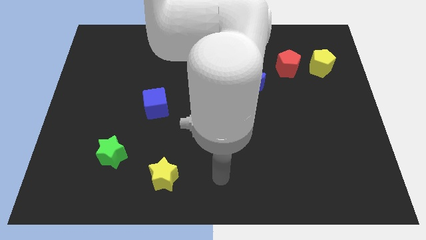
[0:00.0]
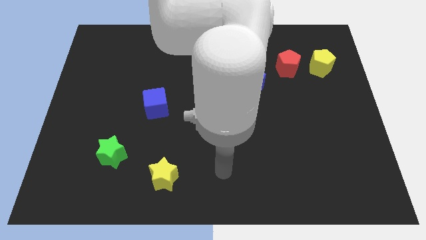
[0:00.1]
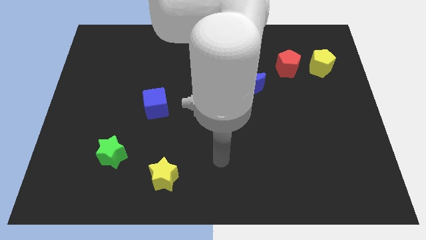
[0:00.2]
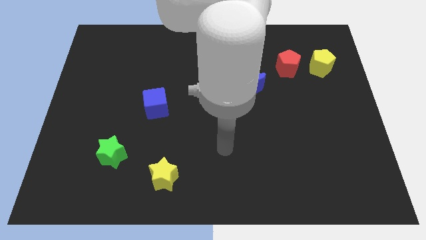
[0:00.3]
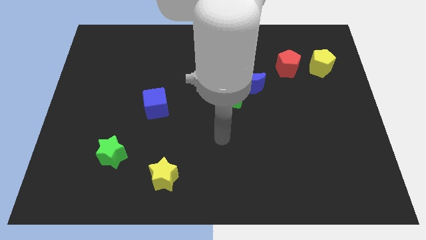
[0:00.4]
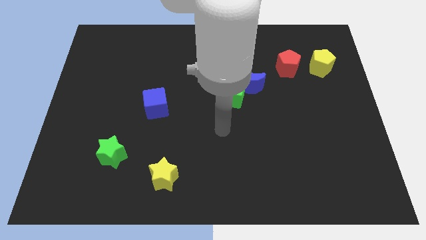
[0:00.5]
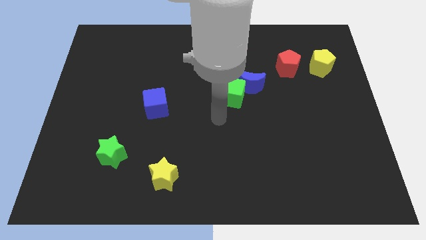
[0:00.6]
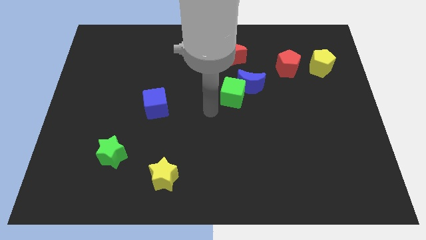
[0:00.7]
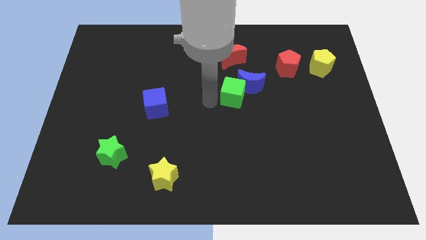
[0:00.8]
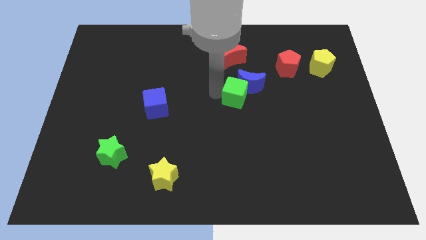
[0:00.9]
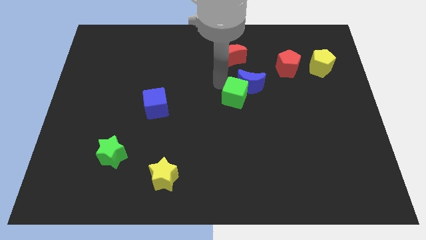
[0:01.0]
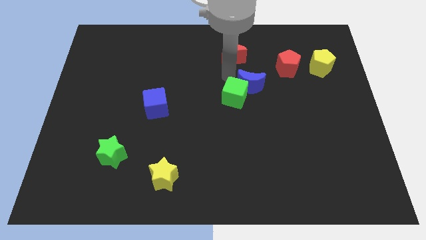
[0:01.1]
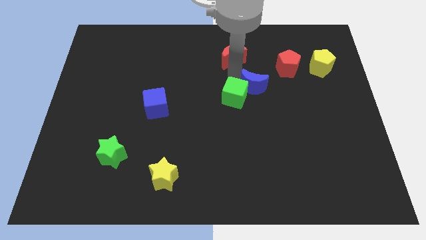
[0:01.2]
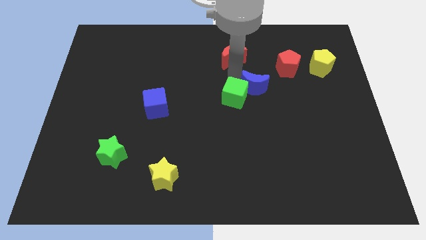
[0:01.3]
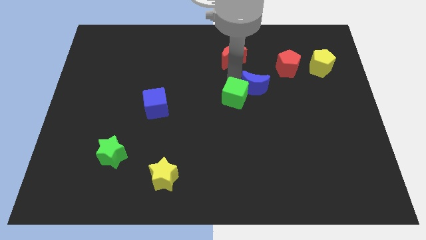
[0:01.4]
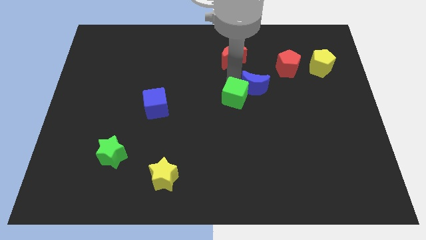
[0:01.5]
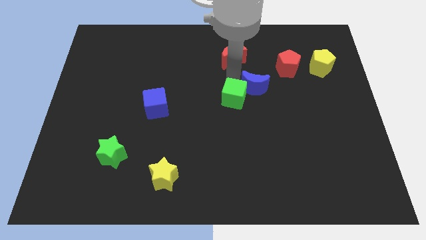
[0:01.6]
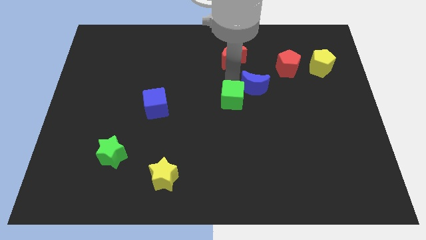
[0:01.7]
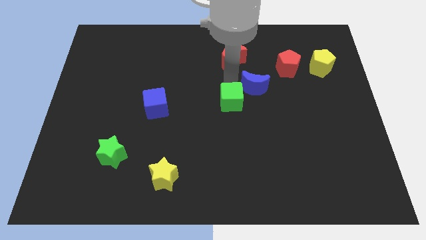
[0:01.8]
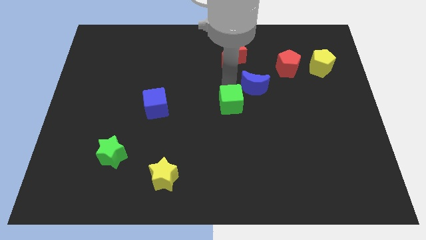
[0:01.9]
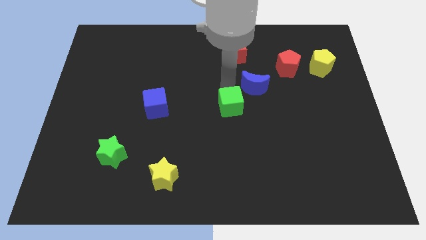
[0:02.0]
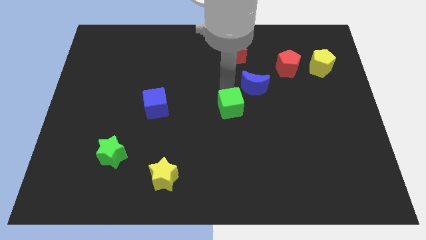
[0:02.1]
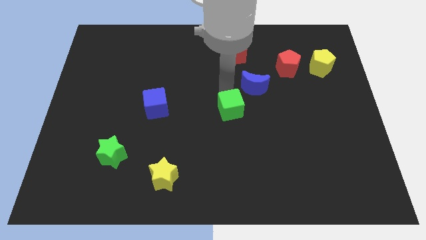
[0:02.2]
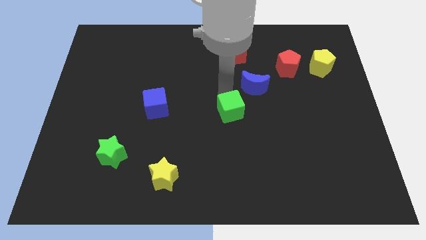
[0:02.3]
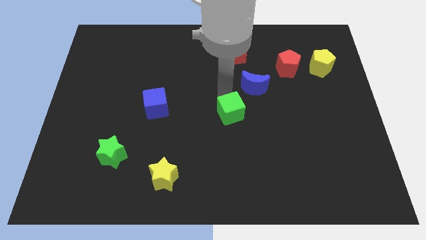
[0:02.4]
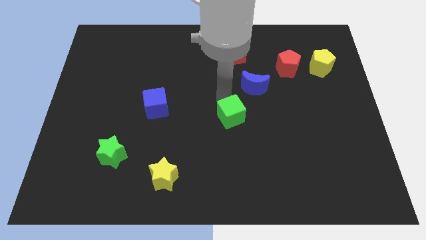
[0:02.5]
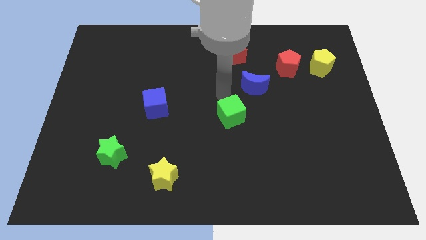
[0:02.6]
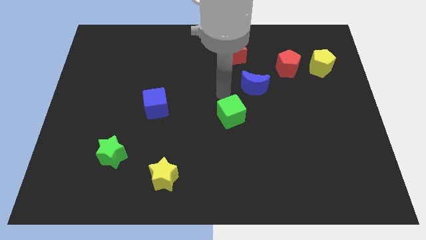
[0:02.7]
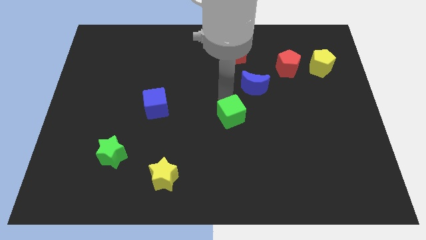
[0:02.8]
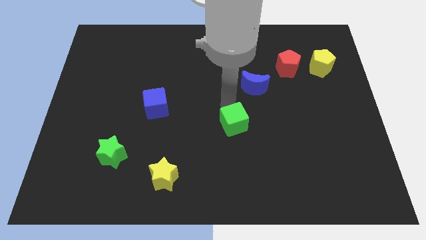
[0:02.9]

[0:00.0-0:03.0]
slide the green cube downwards a bit

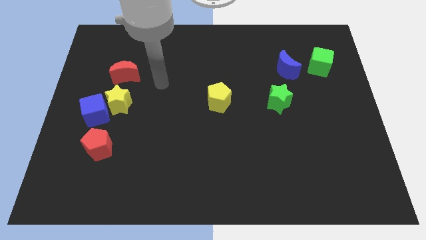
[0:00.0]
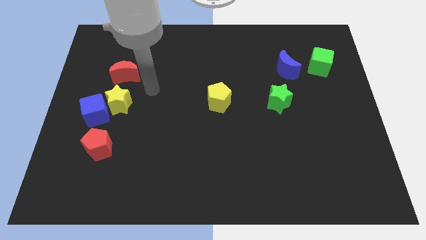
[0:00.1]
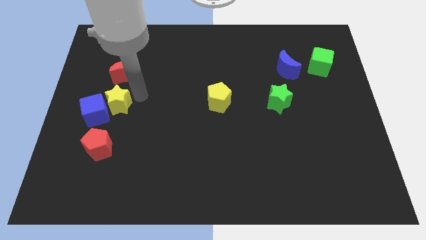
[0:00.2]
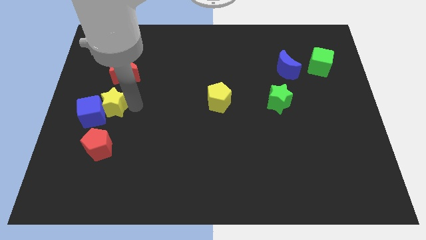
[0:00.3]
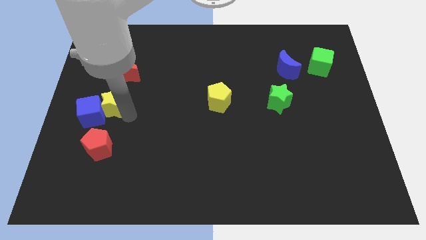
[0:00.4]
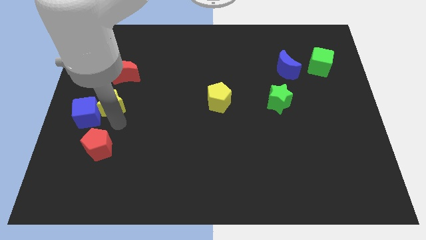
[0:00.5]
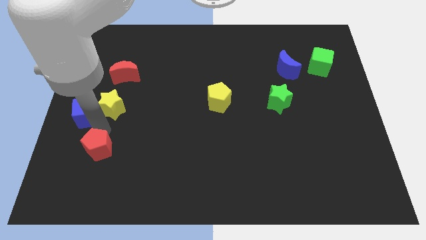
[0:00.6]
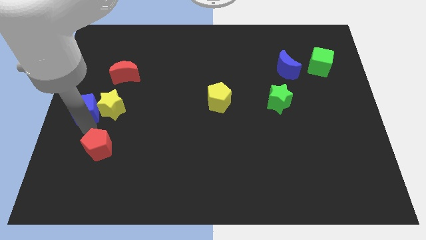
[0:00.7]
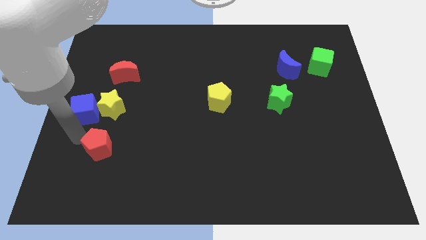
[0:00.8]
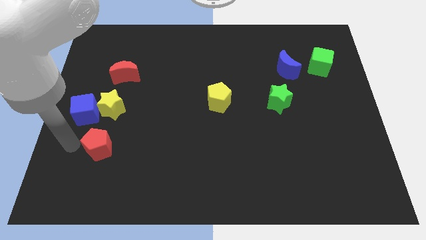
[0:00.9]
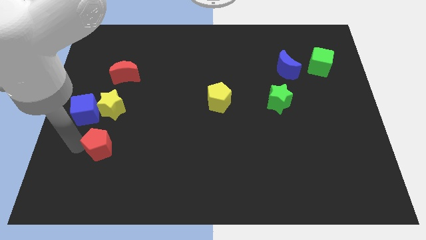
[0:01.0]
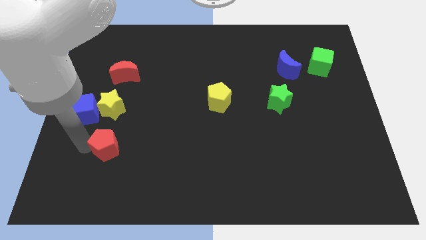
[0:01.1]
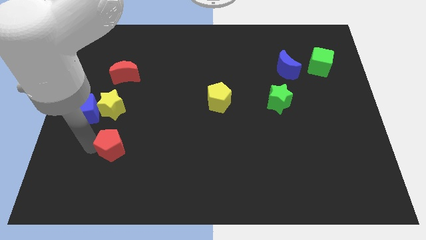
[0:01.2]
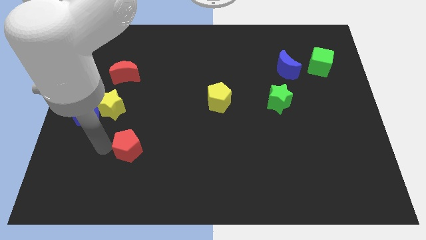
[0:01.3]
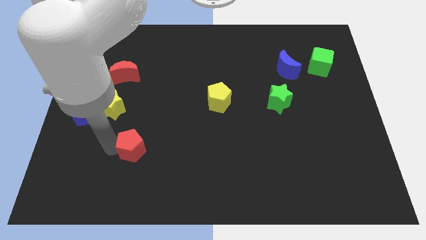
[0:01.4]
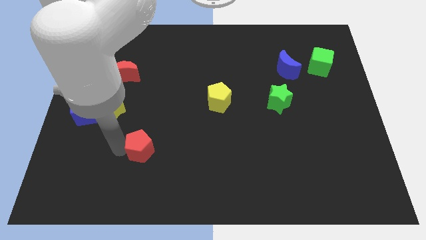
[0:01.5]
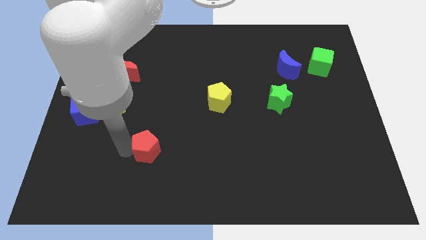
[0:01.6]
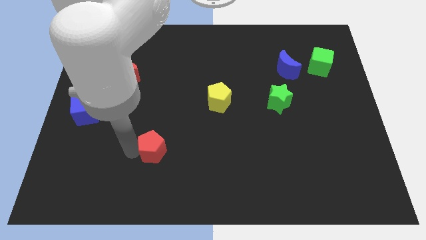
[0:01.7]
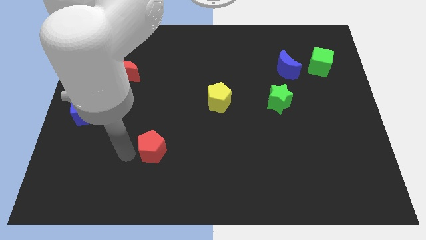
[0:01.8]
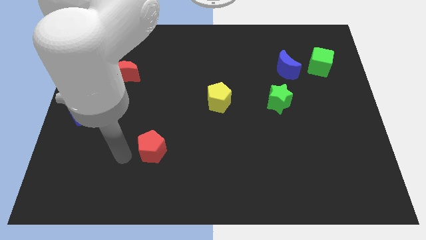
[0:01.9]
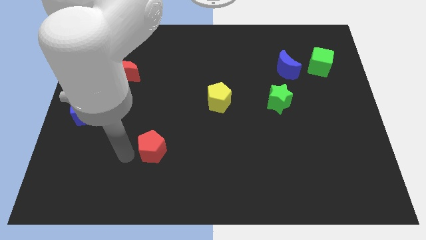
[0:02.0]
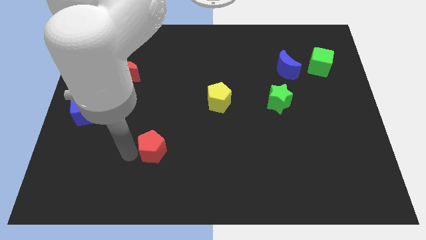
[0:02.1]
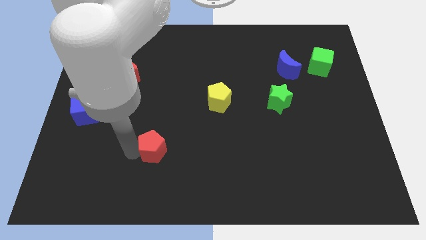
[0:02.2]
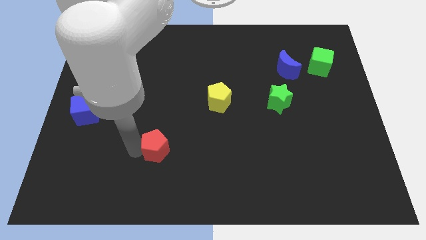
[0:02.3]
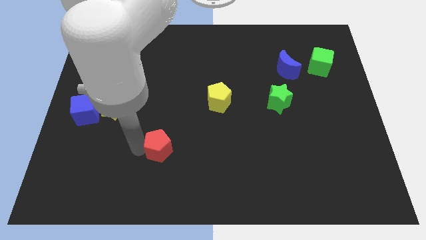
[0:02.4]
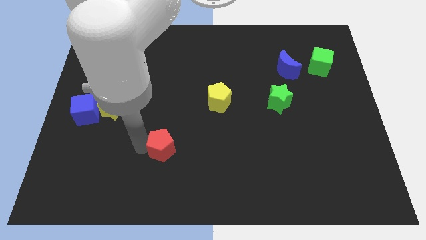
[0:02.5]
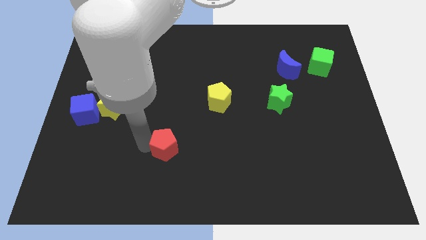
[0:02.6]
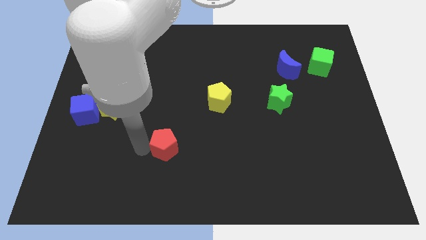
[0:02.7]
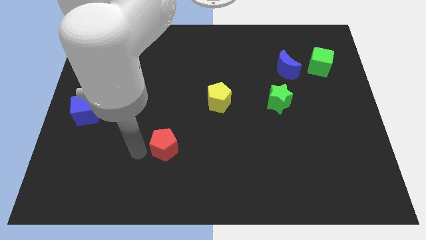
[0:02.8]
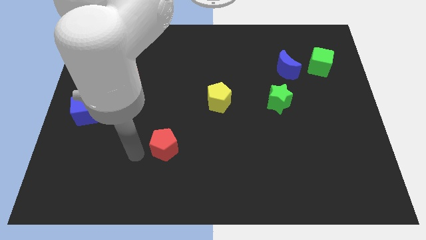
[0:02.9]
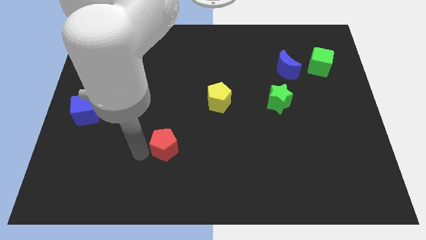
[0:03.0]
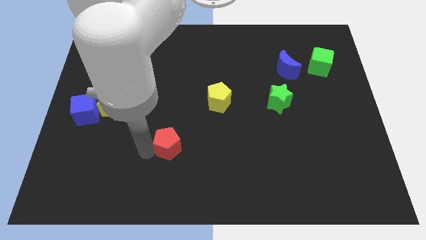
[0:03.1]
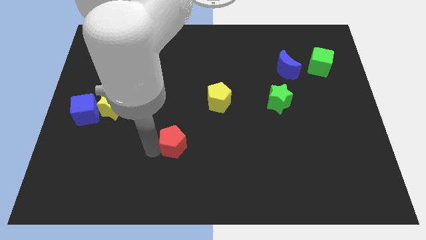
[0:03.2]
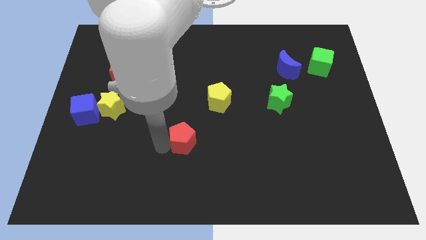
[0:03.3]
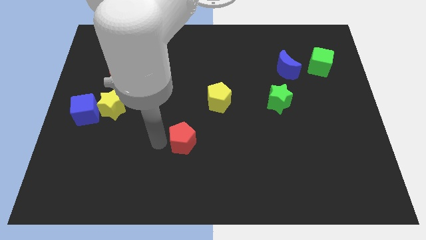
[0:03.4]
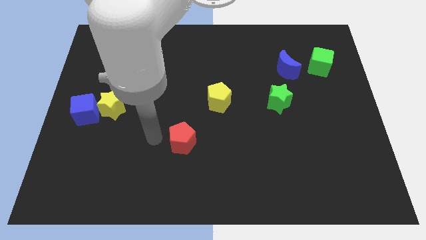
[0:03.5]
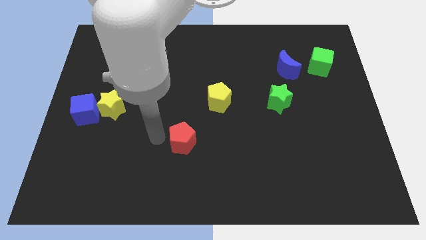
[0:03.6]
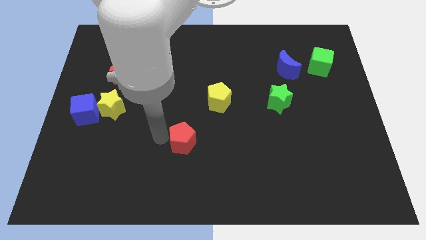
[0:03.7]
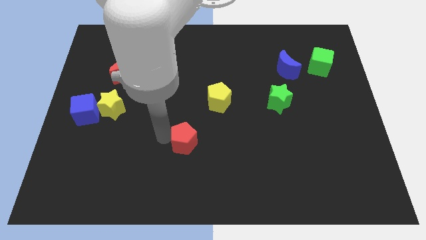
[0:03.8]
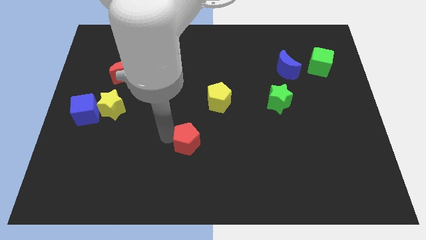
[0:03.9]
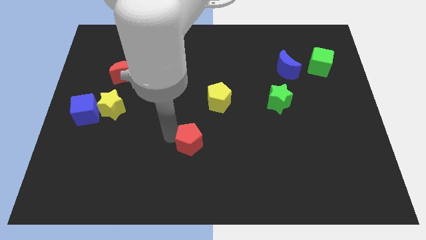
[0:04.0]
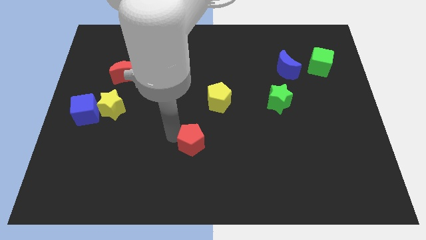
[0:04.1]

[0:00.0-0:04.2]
push the red pentagon to the right

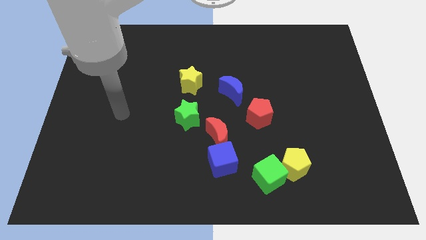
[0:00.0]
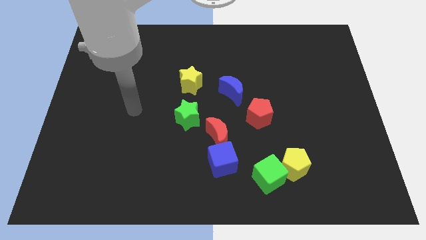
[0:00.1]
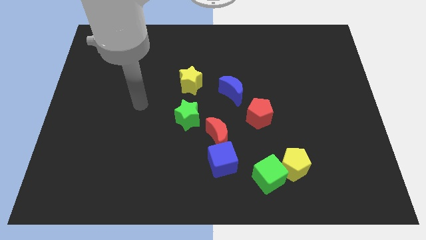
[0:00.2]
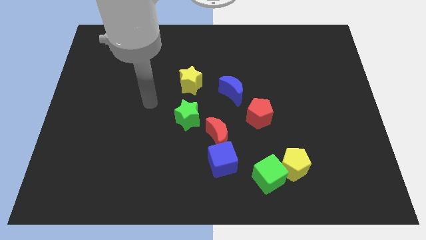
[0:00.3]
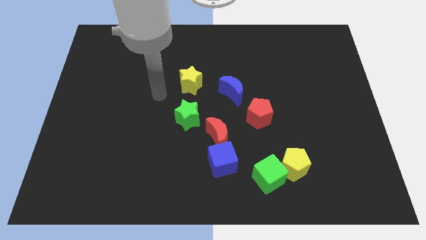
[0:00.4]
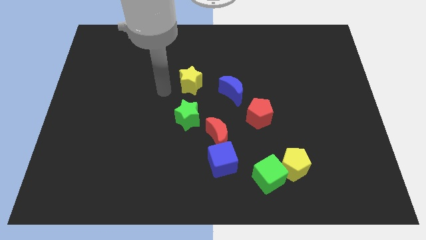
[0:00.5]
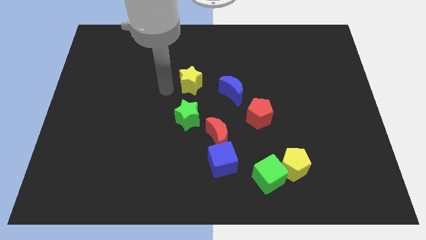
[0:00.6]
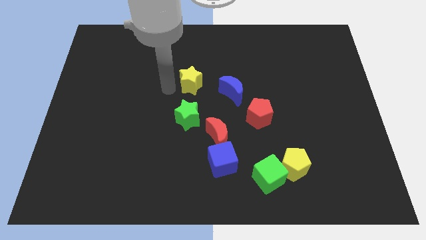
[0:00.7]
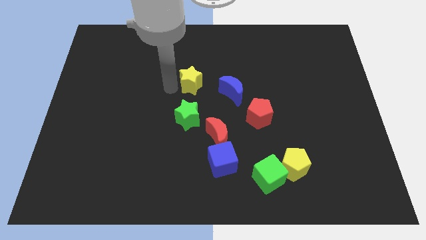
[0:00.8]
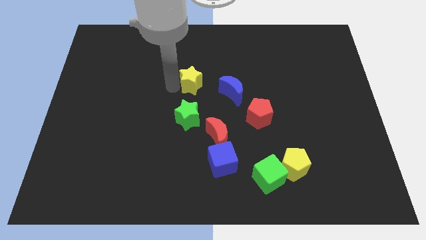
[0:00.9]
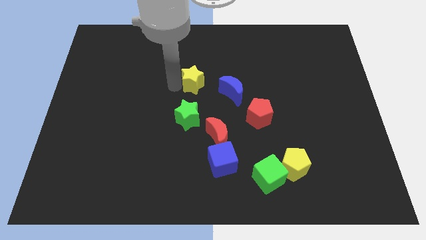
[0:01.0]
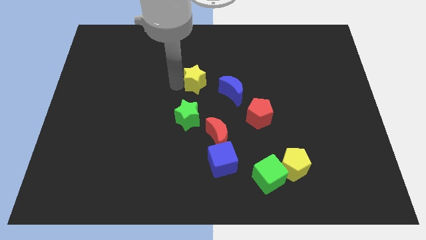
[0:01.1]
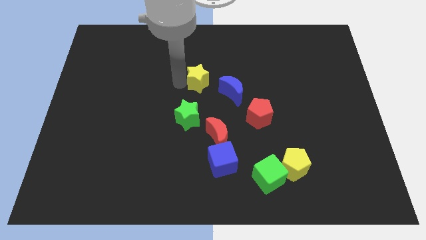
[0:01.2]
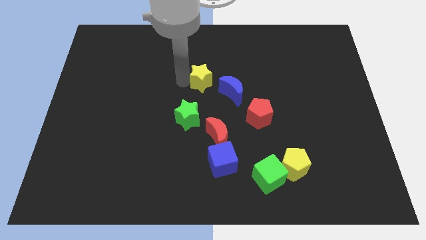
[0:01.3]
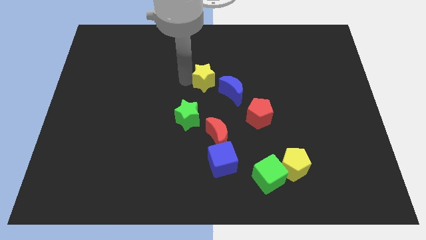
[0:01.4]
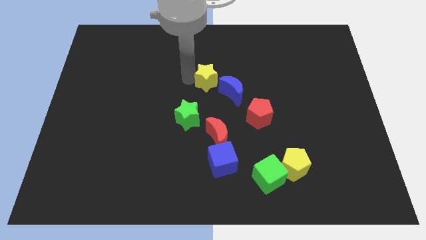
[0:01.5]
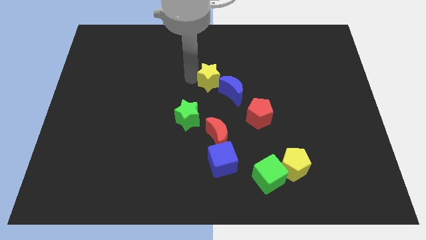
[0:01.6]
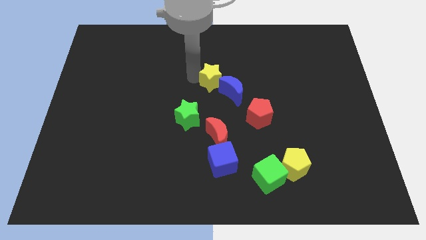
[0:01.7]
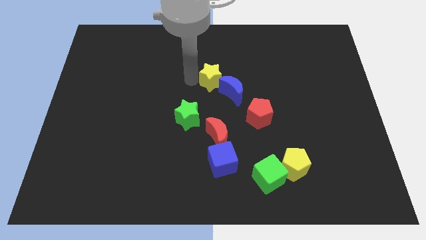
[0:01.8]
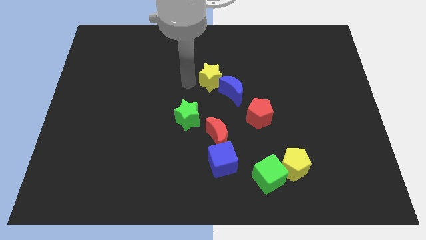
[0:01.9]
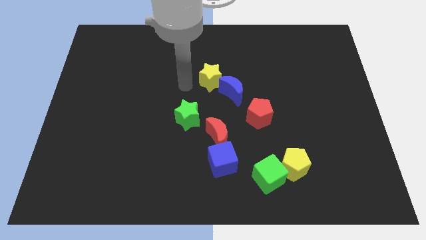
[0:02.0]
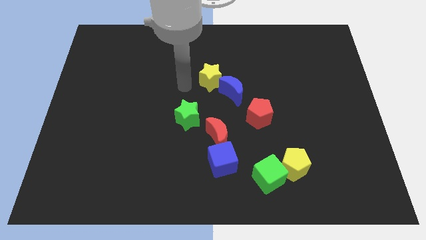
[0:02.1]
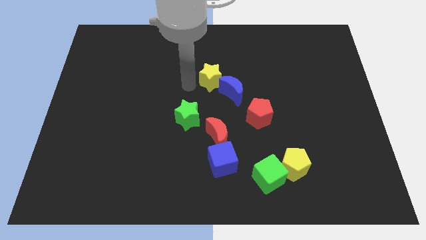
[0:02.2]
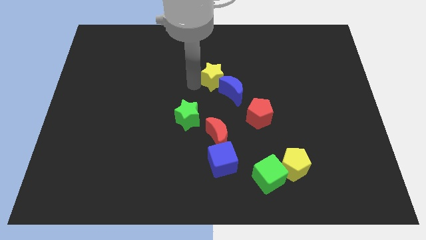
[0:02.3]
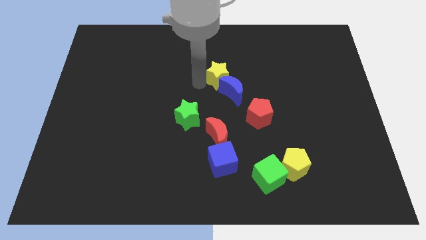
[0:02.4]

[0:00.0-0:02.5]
push the yellow star a little to the right
